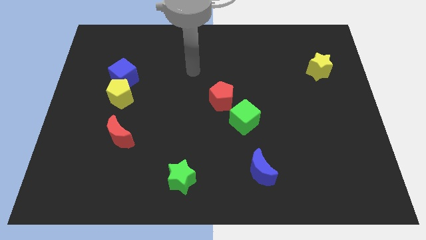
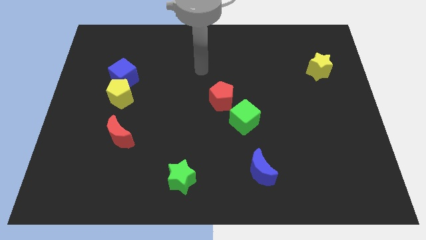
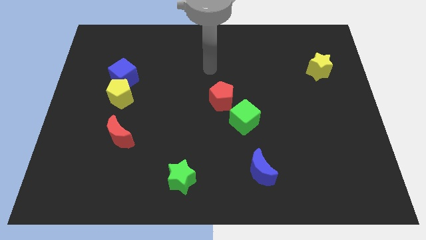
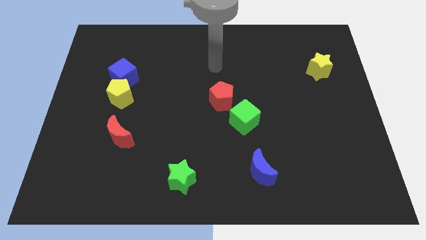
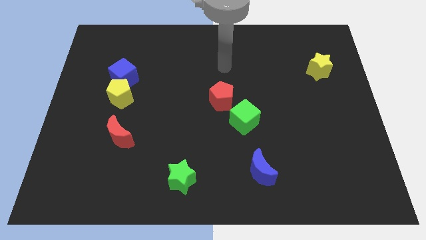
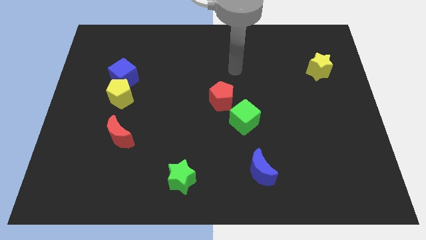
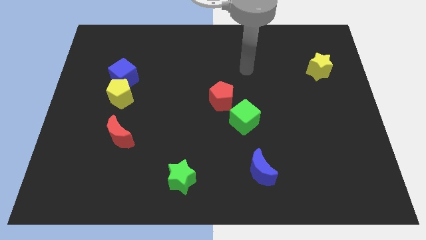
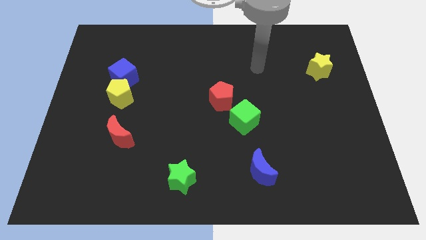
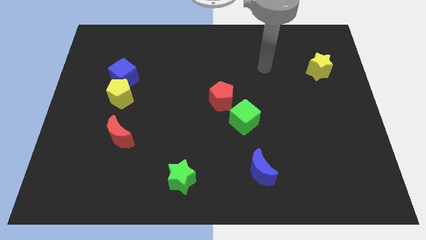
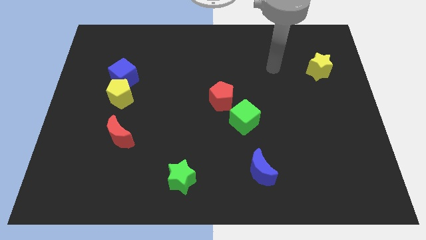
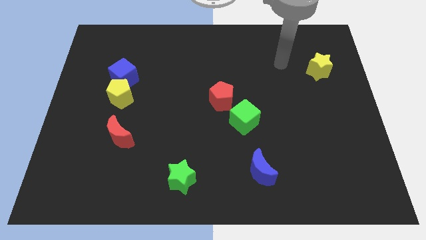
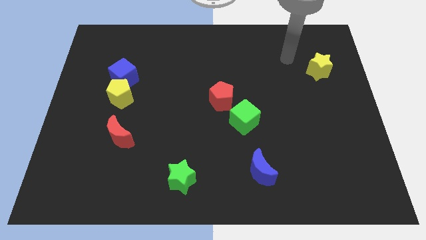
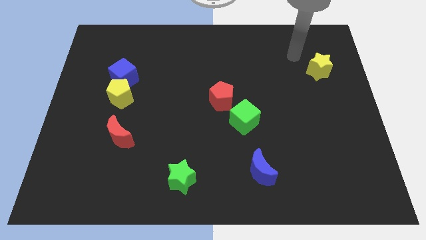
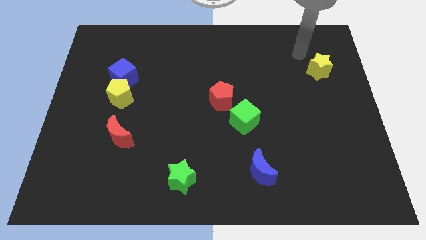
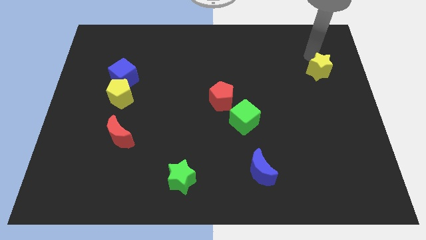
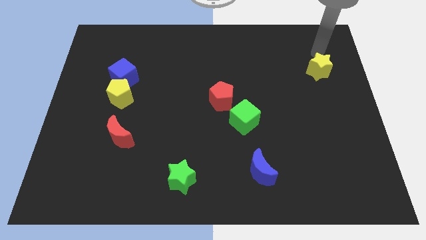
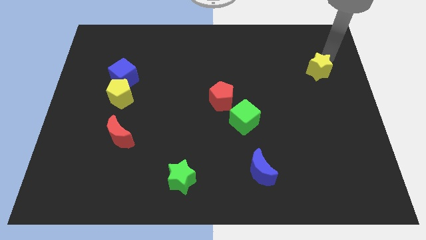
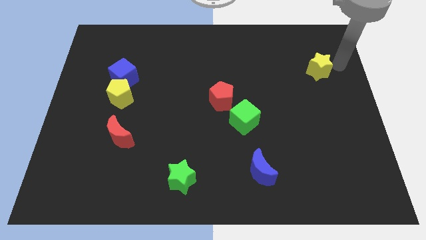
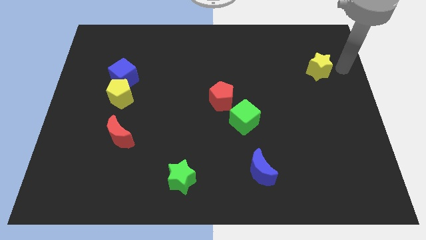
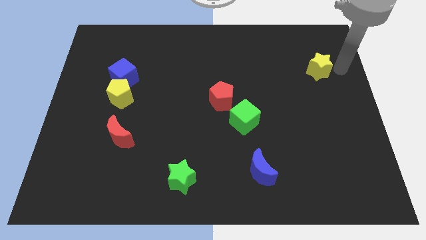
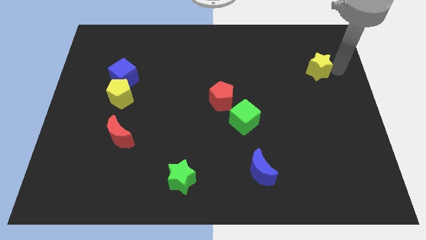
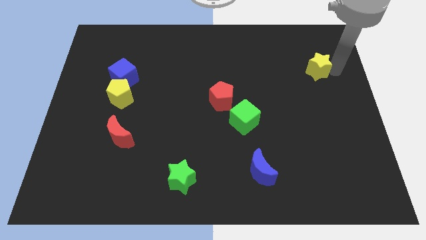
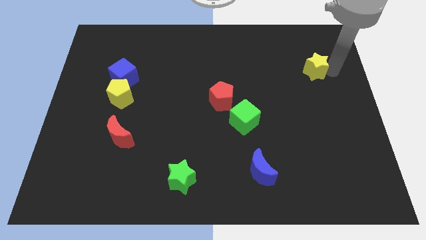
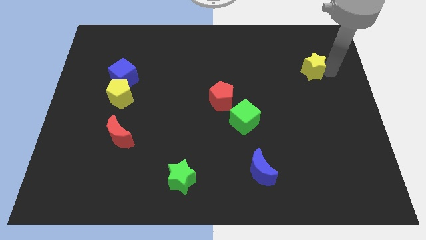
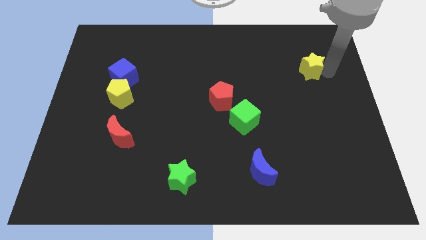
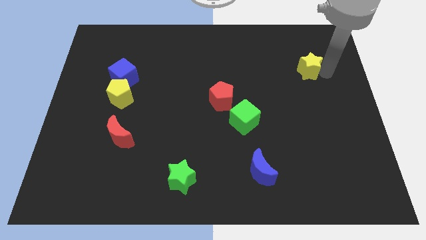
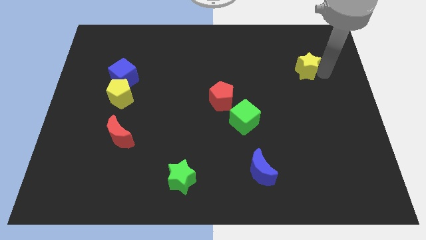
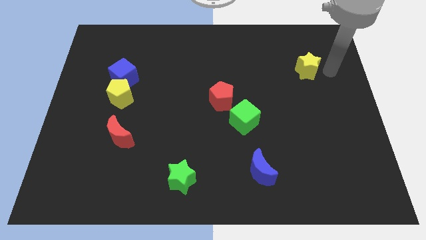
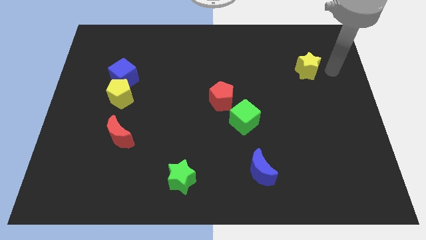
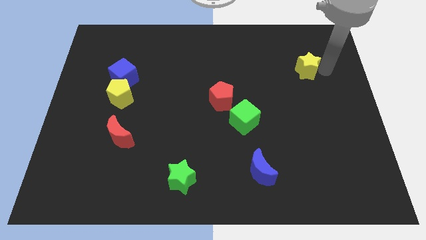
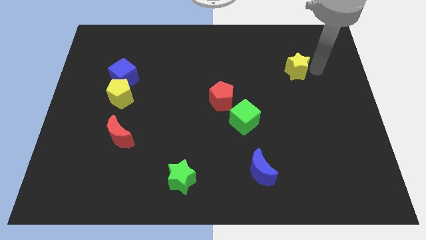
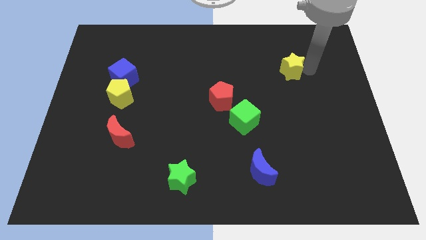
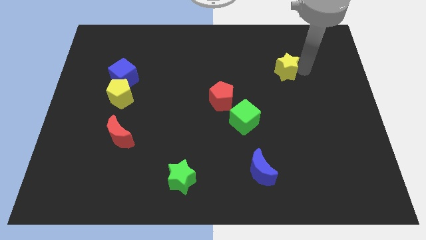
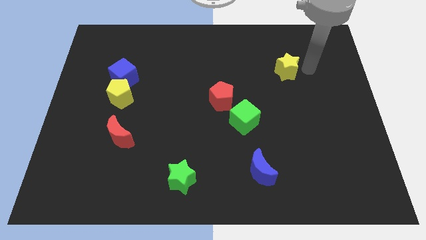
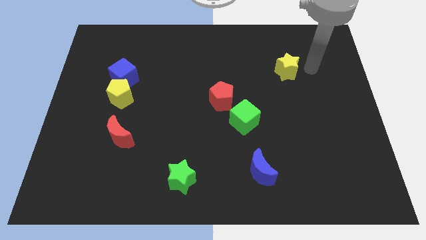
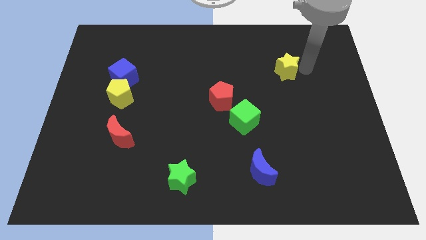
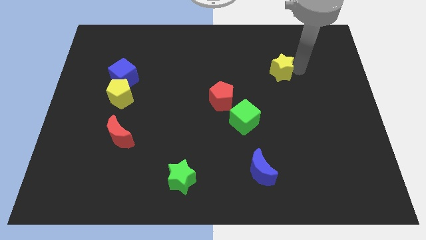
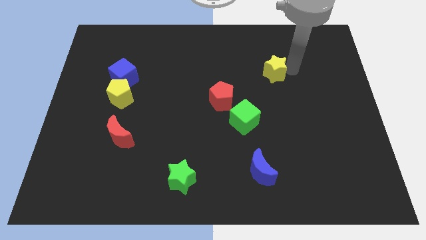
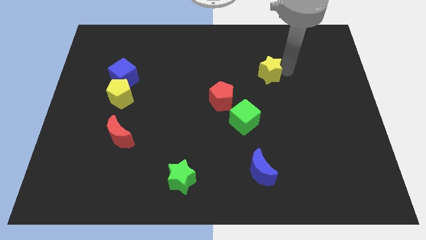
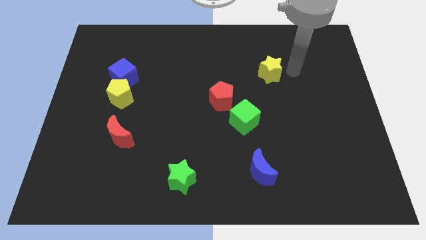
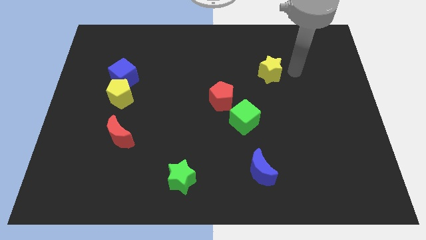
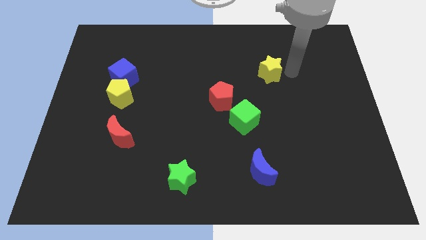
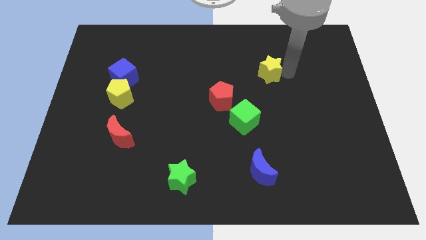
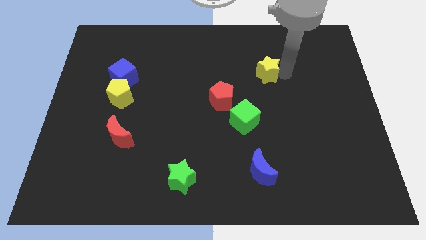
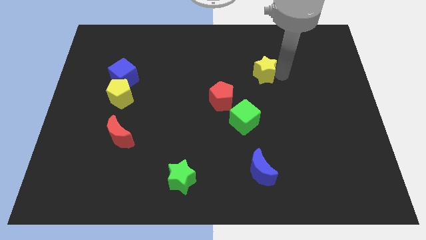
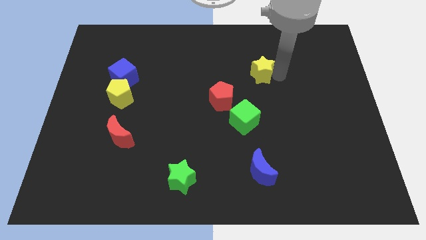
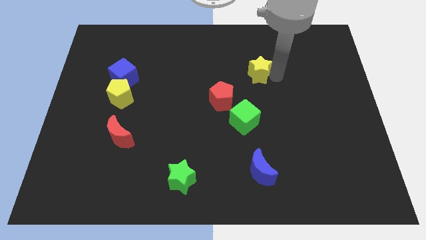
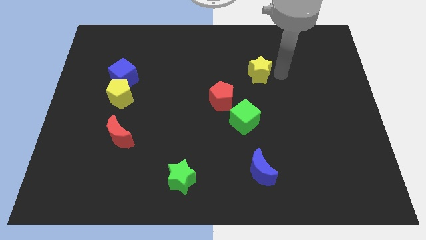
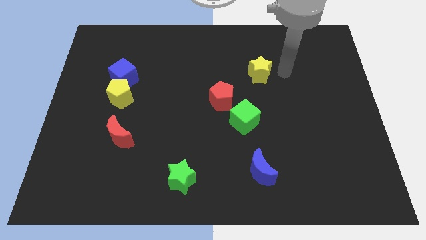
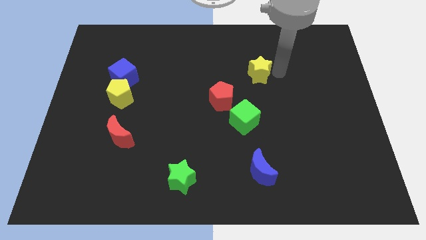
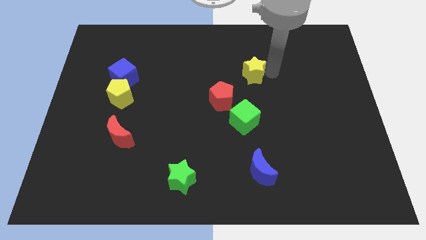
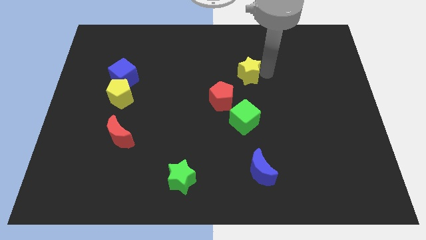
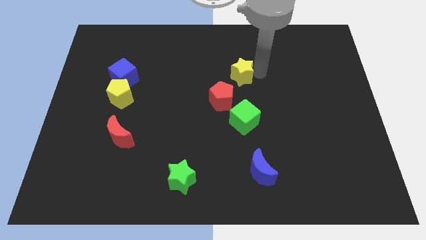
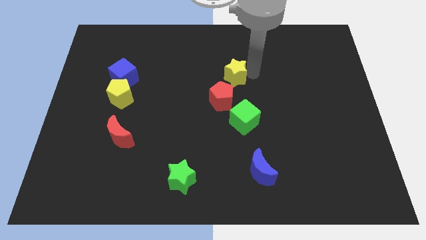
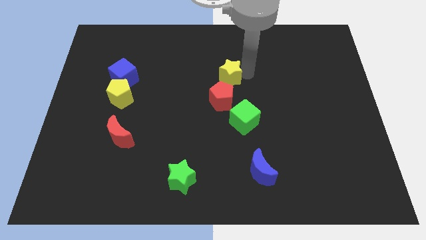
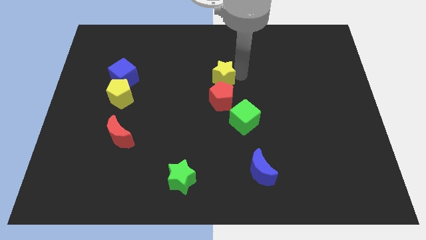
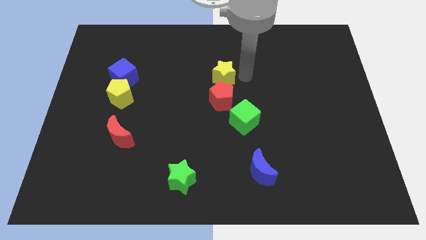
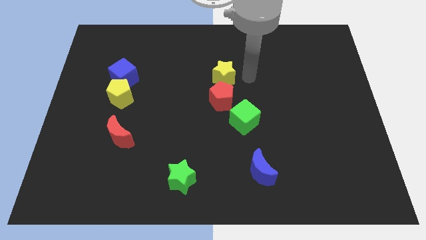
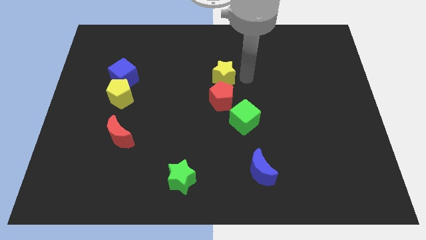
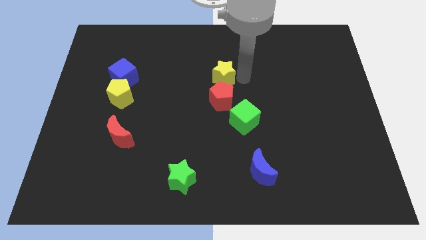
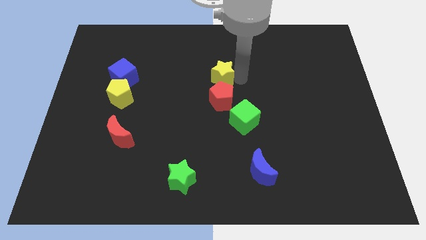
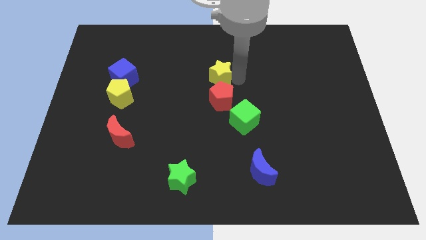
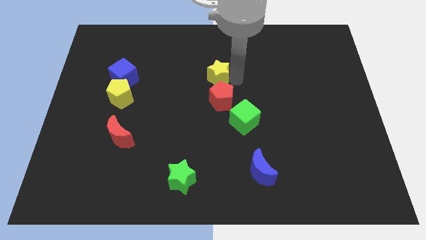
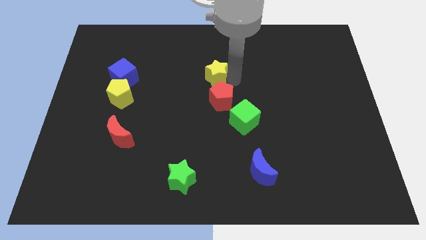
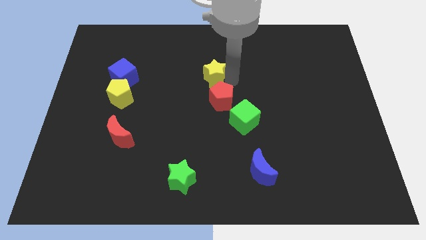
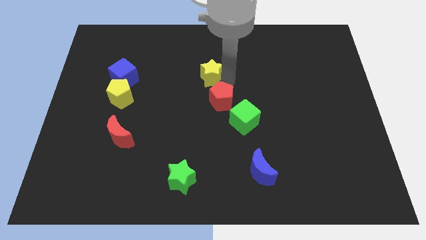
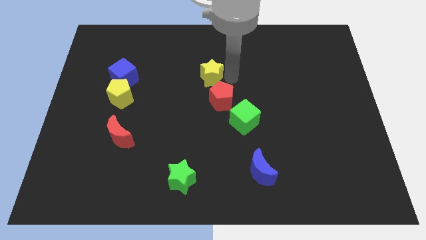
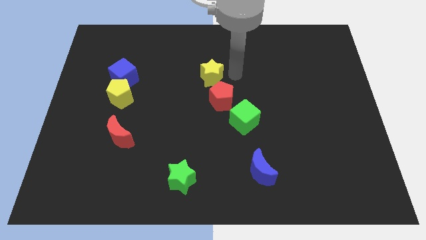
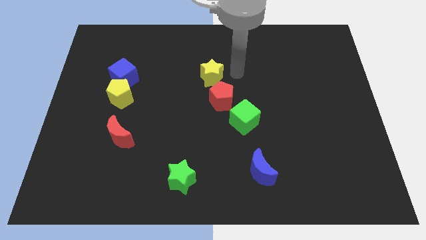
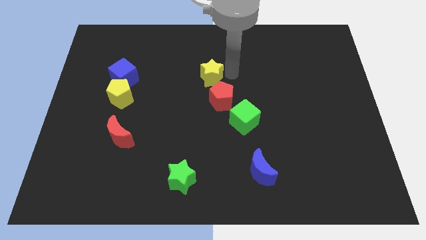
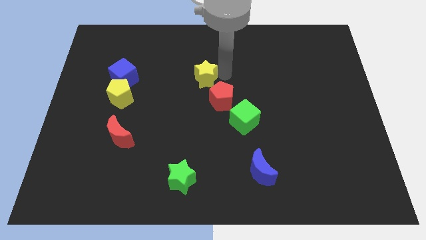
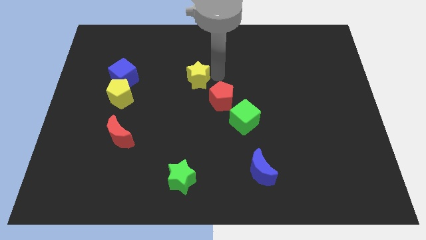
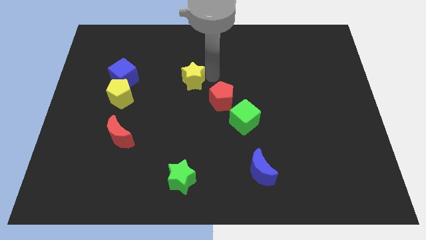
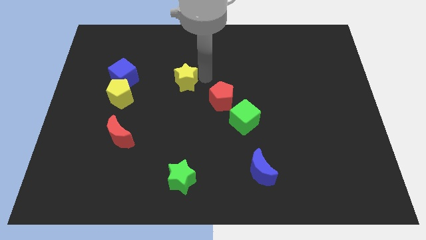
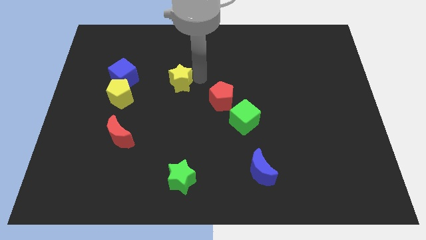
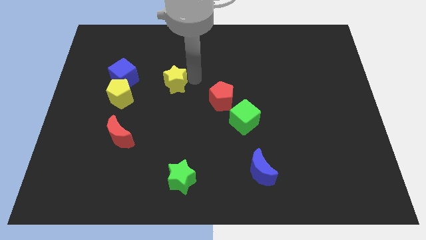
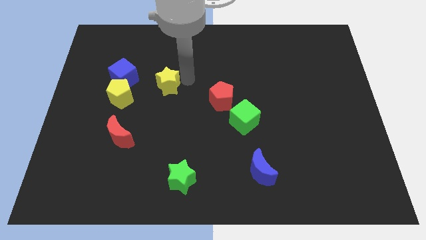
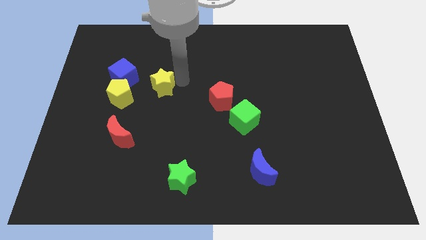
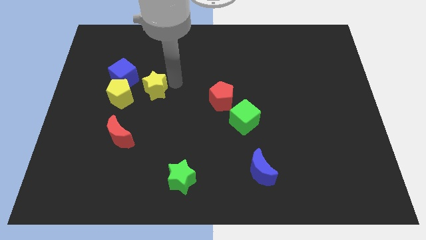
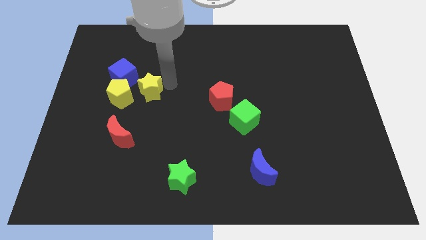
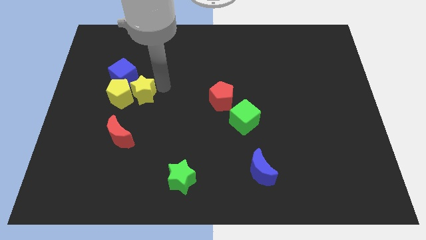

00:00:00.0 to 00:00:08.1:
push the yellow star to the yellow pentagon
